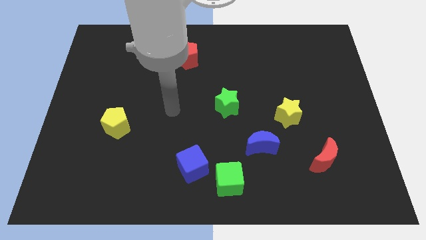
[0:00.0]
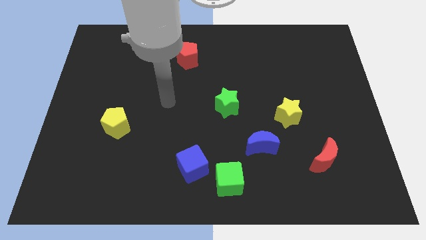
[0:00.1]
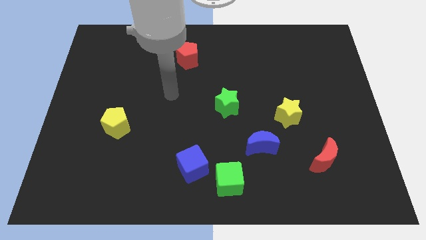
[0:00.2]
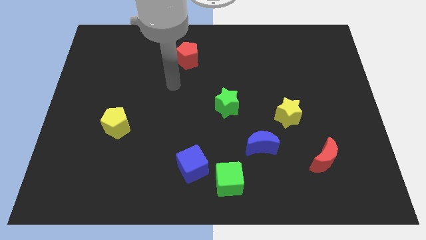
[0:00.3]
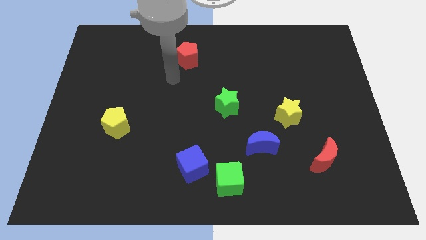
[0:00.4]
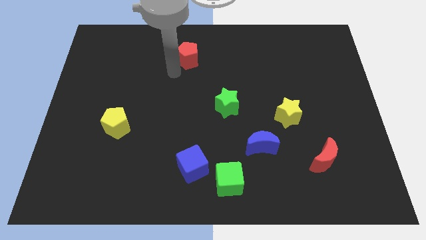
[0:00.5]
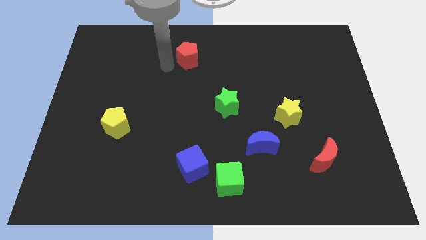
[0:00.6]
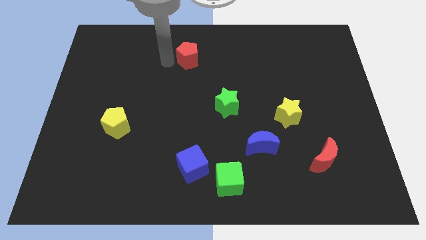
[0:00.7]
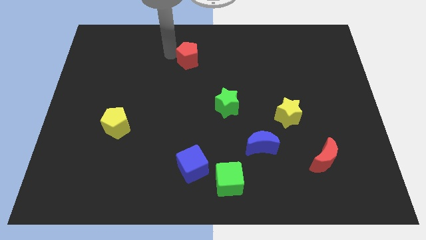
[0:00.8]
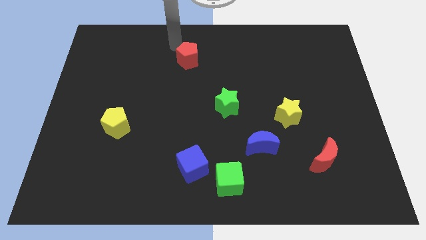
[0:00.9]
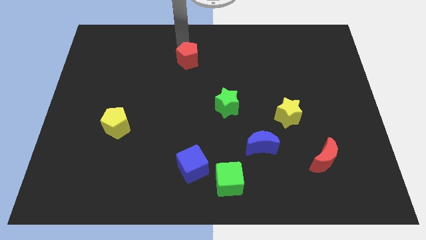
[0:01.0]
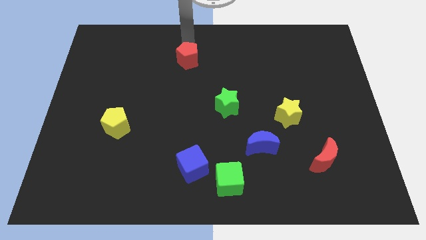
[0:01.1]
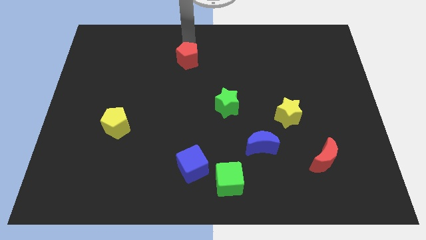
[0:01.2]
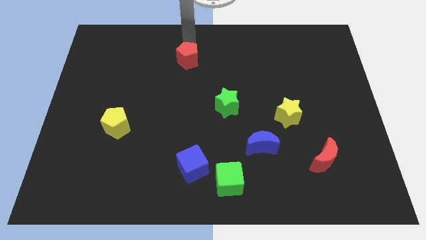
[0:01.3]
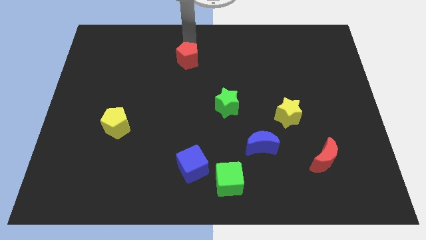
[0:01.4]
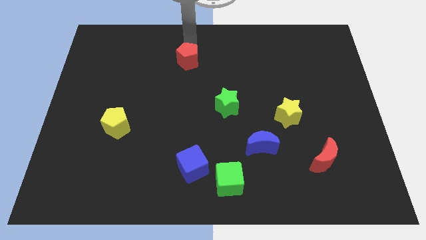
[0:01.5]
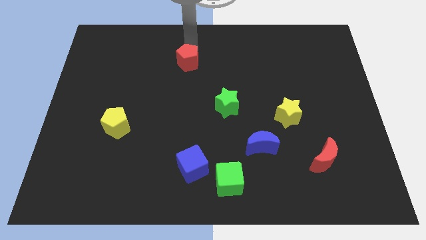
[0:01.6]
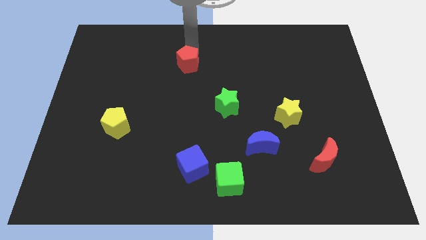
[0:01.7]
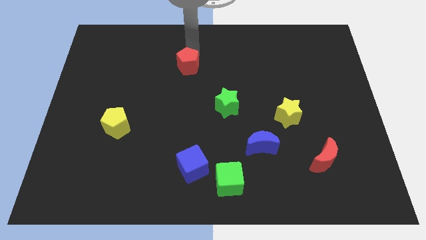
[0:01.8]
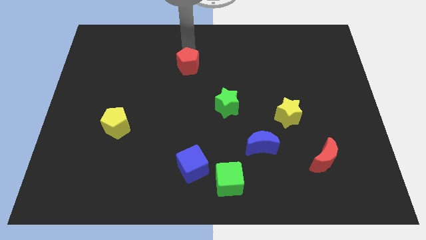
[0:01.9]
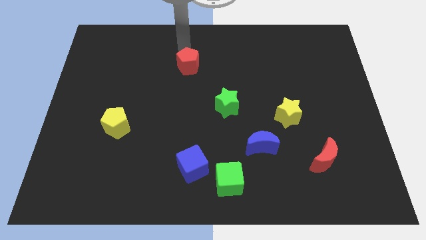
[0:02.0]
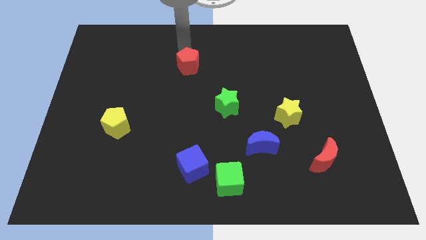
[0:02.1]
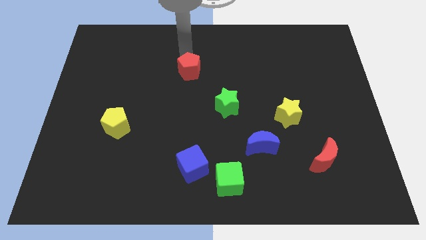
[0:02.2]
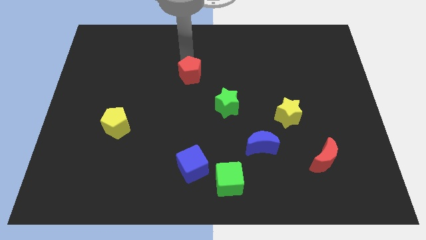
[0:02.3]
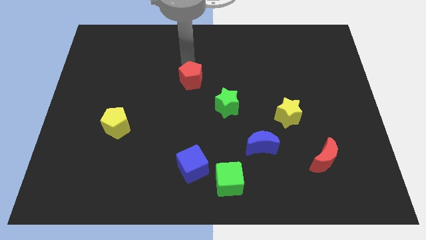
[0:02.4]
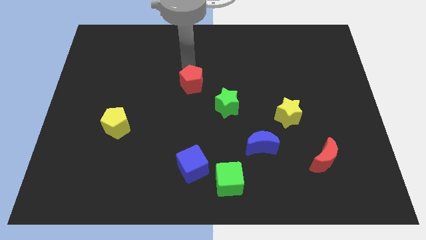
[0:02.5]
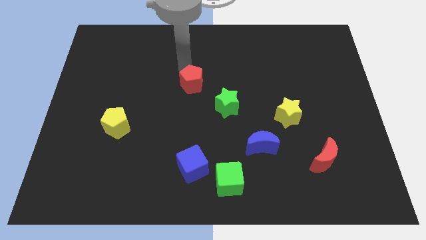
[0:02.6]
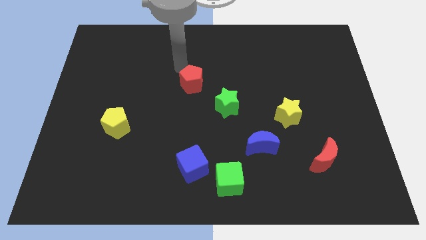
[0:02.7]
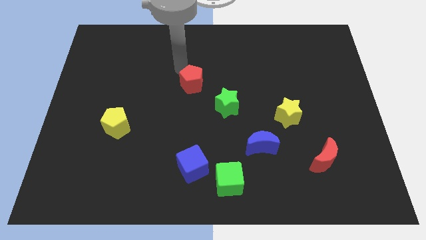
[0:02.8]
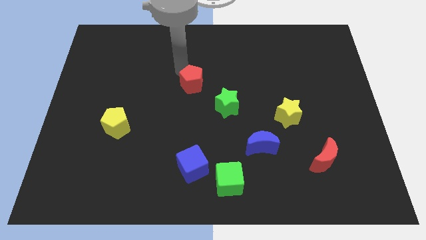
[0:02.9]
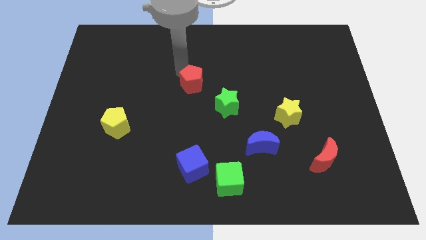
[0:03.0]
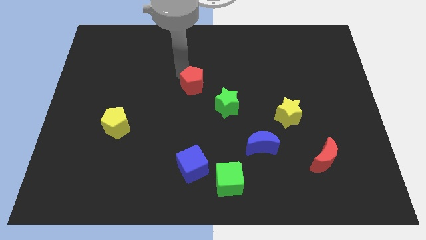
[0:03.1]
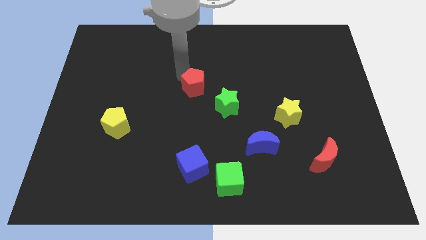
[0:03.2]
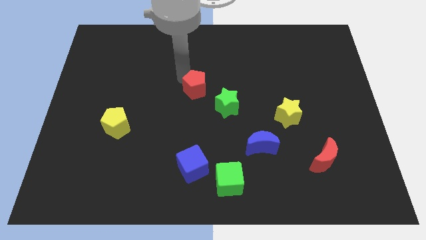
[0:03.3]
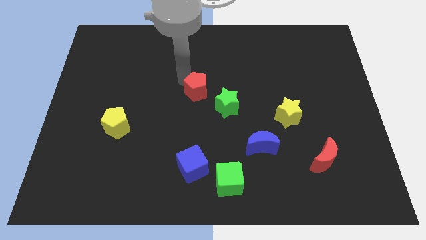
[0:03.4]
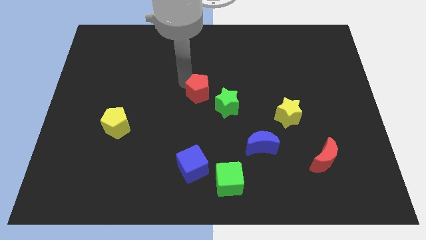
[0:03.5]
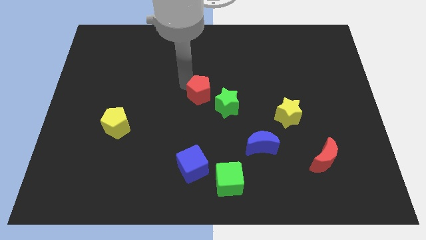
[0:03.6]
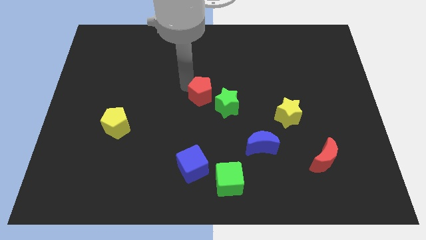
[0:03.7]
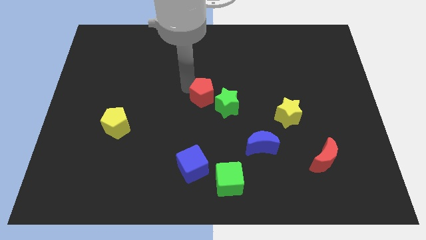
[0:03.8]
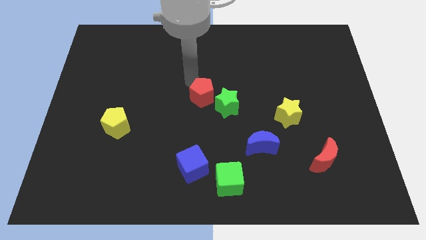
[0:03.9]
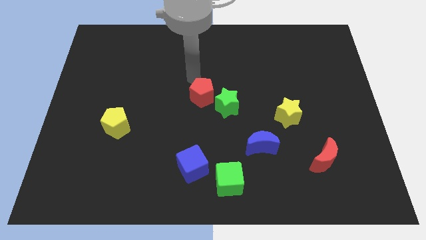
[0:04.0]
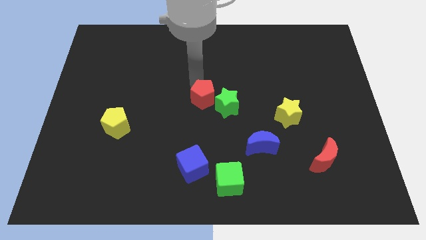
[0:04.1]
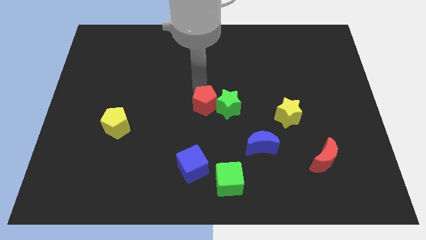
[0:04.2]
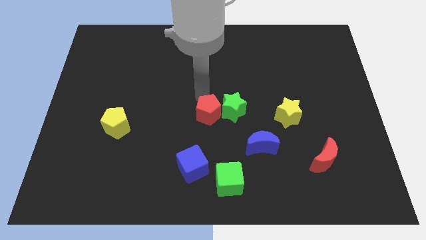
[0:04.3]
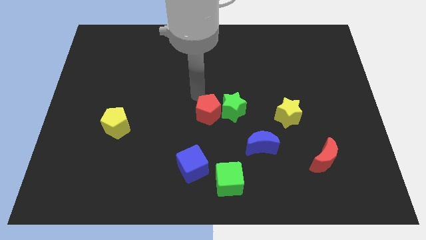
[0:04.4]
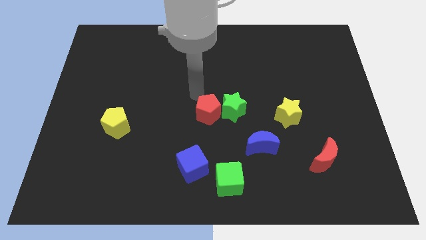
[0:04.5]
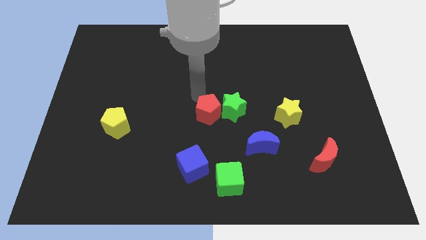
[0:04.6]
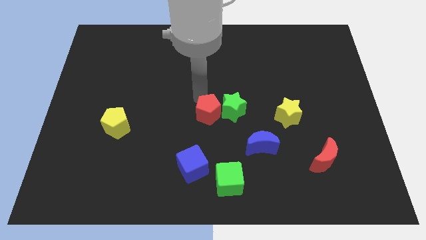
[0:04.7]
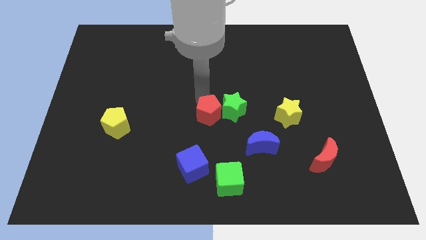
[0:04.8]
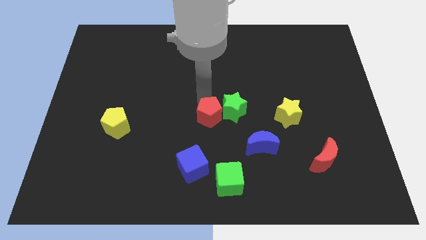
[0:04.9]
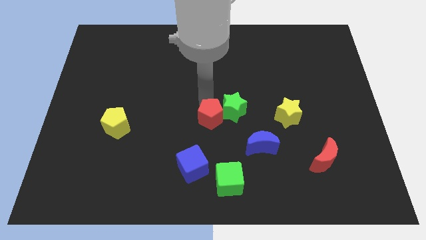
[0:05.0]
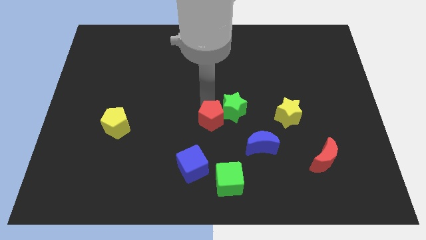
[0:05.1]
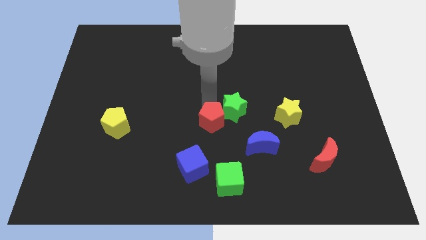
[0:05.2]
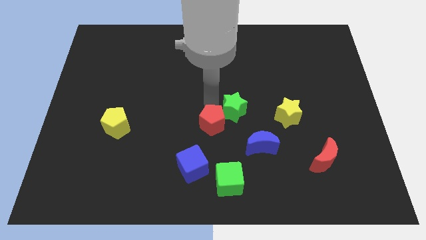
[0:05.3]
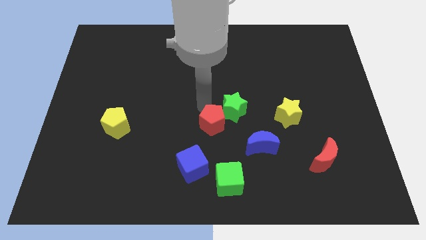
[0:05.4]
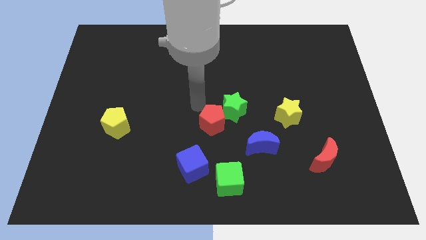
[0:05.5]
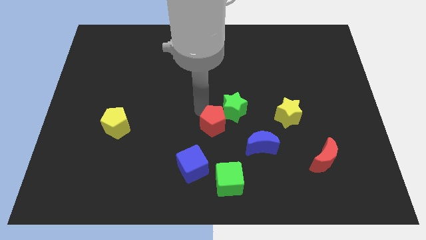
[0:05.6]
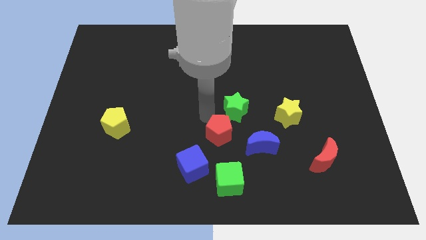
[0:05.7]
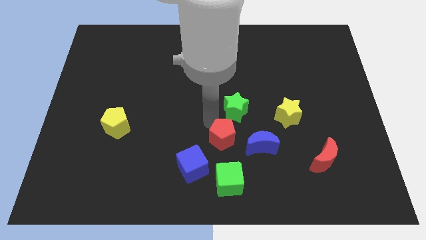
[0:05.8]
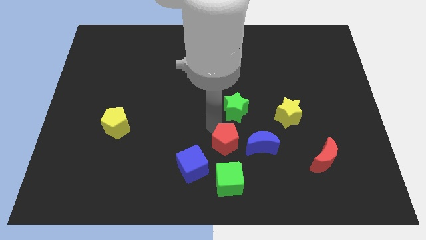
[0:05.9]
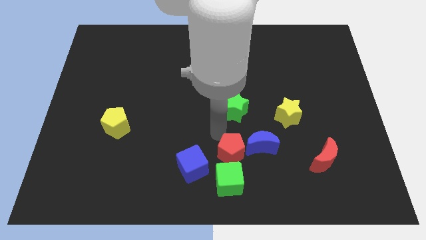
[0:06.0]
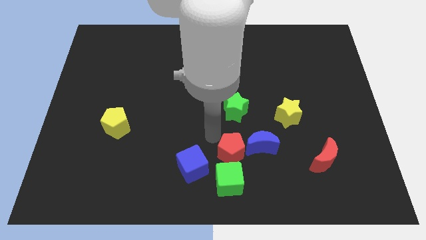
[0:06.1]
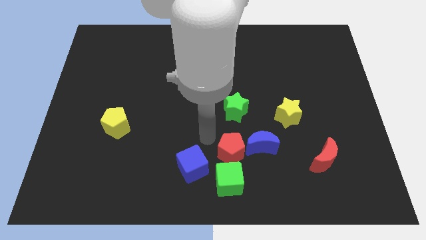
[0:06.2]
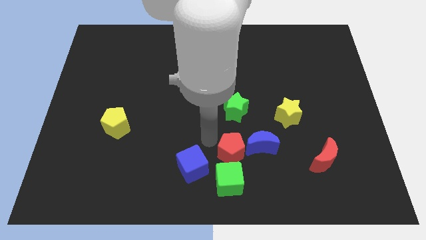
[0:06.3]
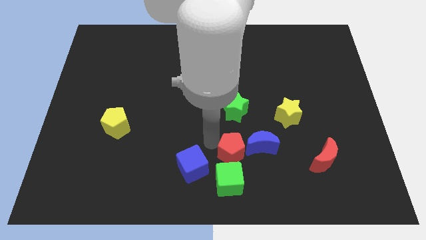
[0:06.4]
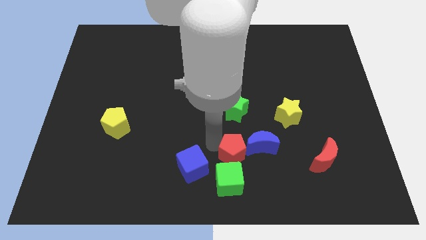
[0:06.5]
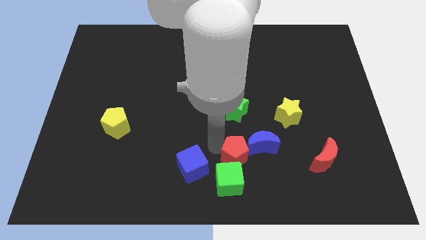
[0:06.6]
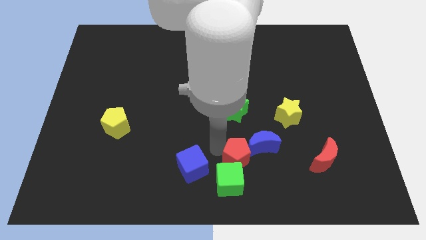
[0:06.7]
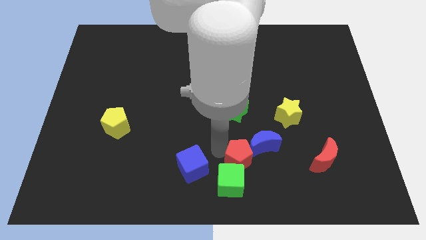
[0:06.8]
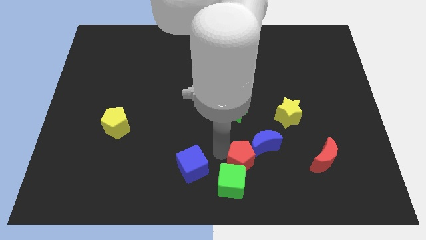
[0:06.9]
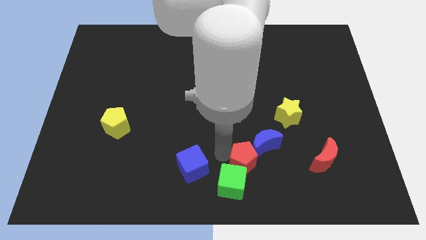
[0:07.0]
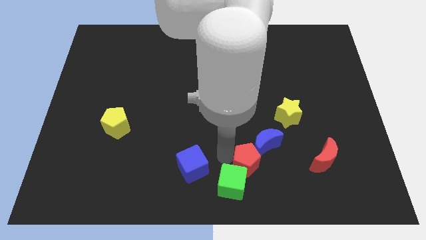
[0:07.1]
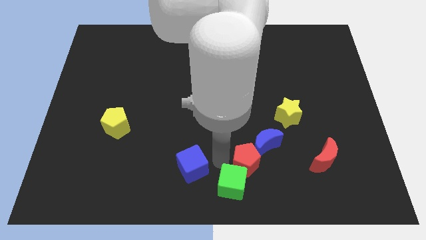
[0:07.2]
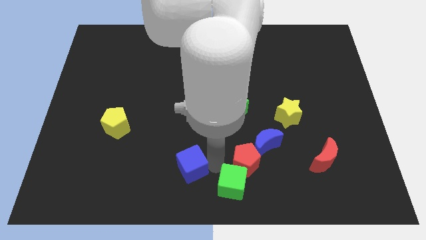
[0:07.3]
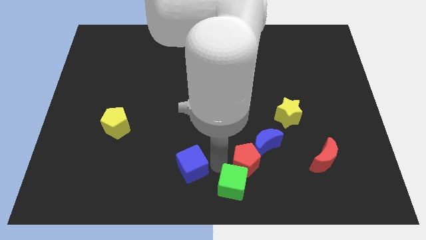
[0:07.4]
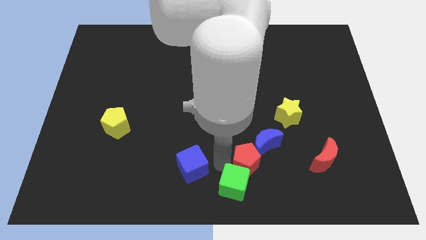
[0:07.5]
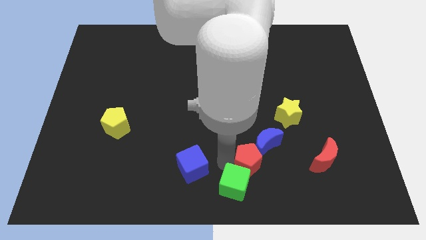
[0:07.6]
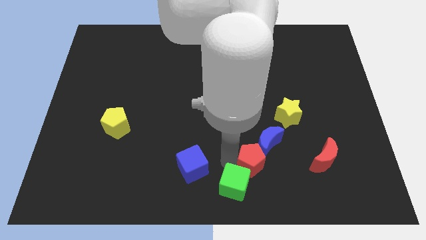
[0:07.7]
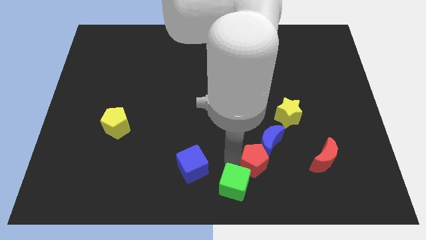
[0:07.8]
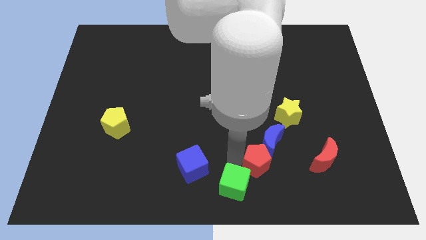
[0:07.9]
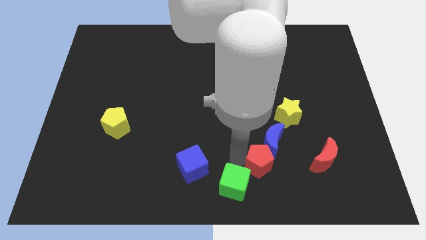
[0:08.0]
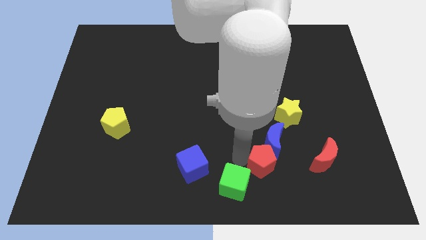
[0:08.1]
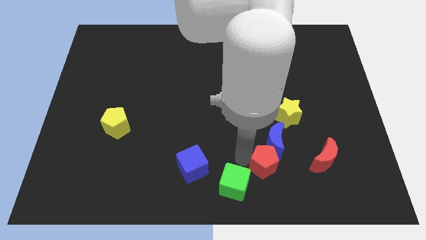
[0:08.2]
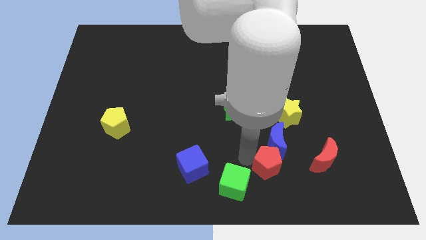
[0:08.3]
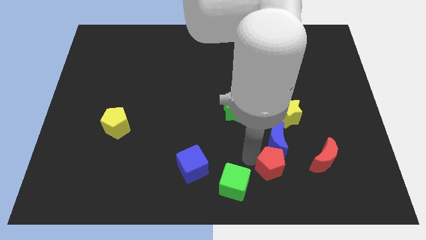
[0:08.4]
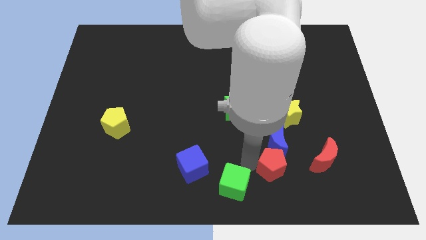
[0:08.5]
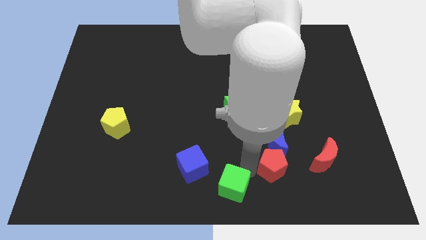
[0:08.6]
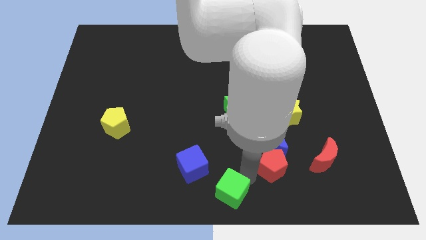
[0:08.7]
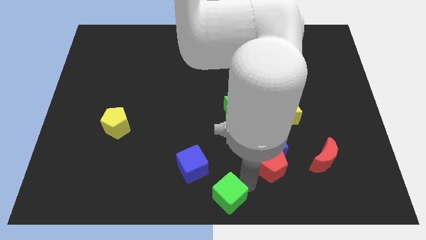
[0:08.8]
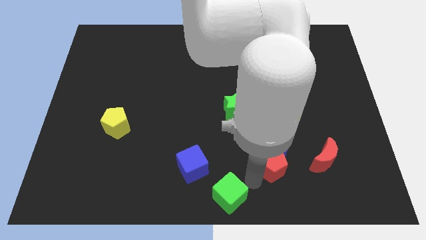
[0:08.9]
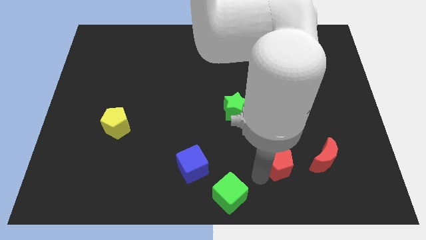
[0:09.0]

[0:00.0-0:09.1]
put the red pentagon below the yellow star
